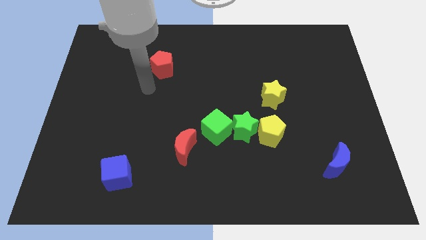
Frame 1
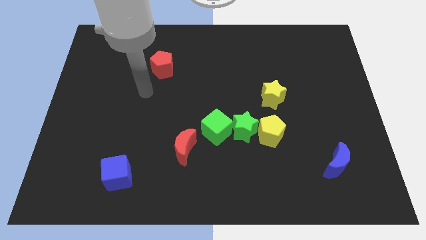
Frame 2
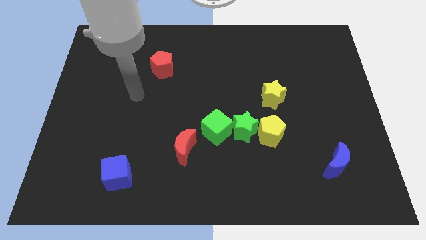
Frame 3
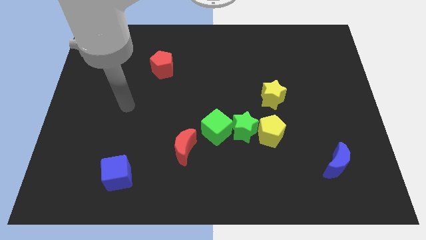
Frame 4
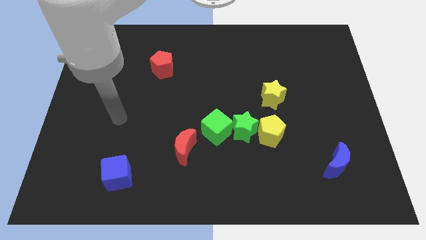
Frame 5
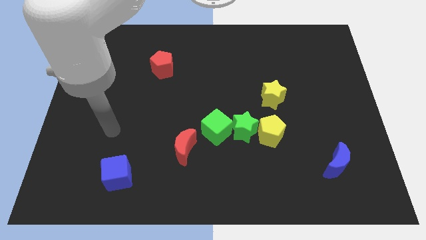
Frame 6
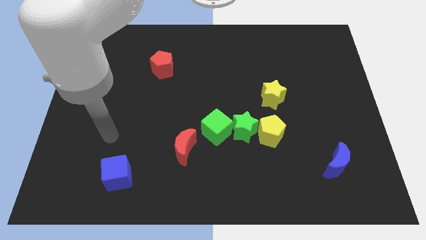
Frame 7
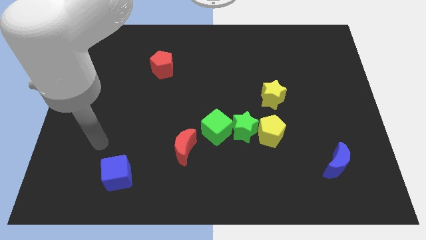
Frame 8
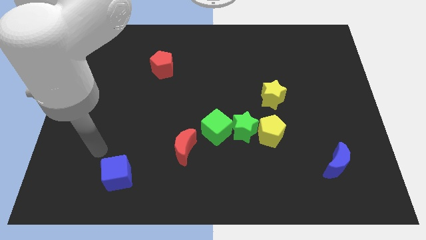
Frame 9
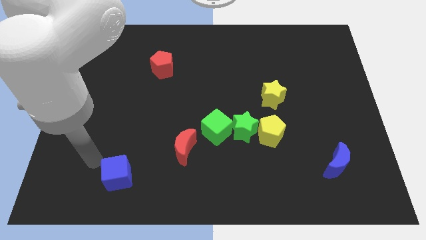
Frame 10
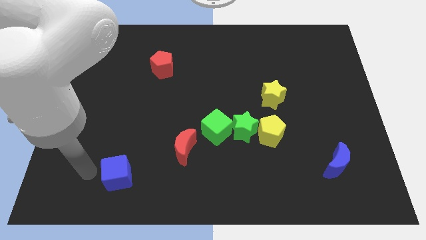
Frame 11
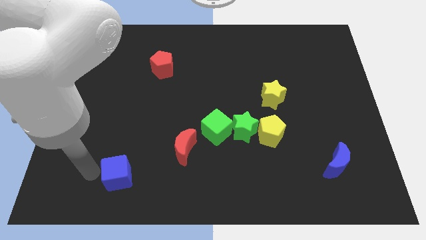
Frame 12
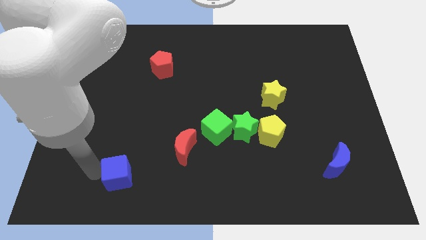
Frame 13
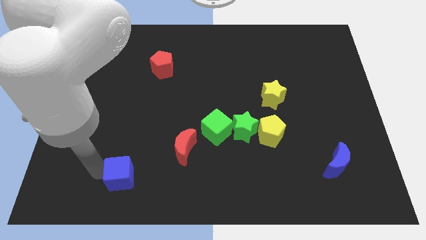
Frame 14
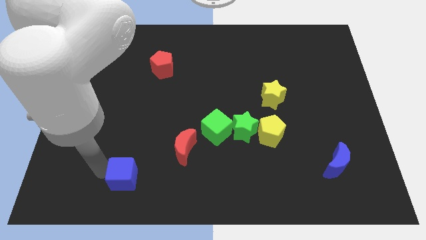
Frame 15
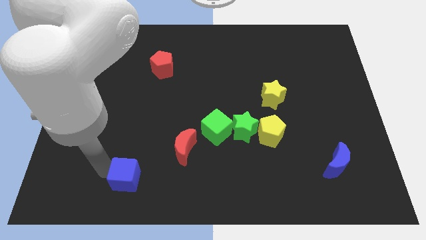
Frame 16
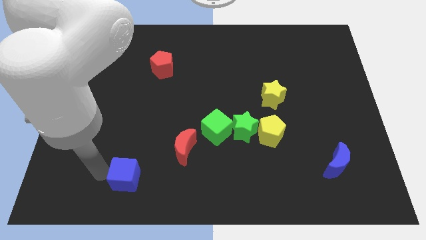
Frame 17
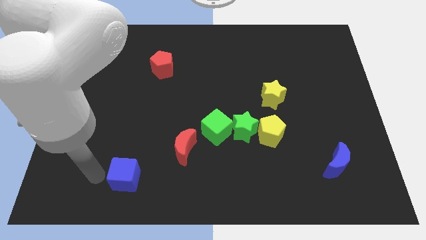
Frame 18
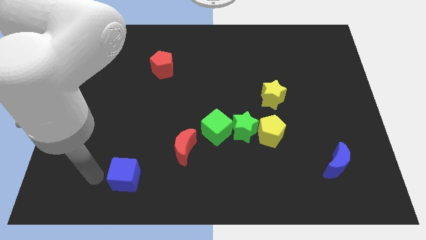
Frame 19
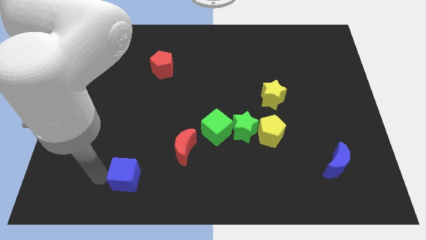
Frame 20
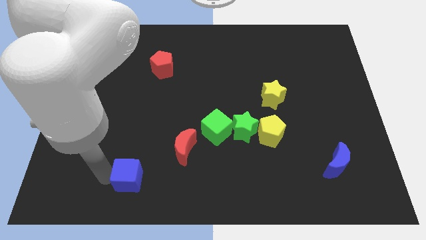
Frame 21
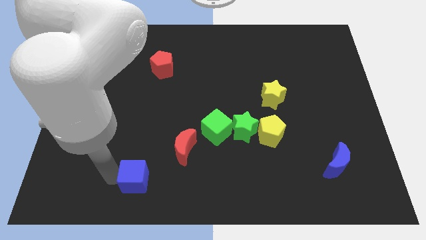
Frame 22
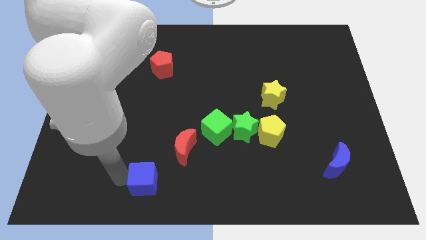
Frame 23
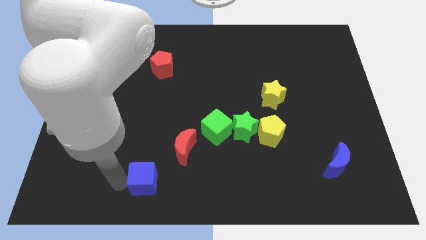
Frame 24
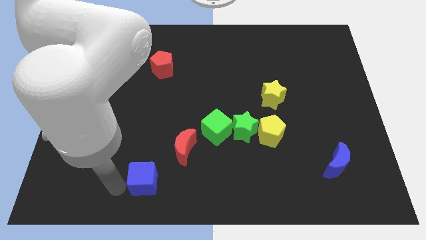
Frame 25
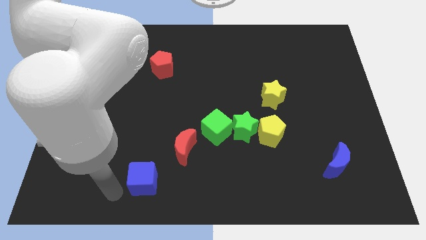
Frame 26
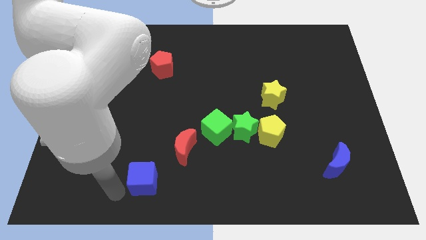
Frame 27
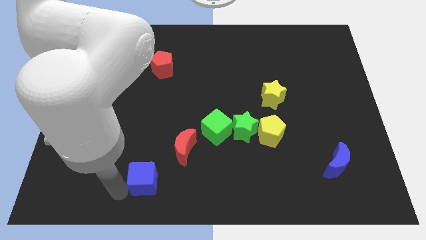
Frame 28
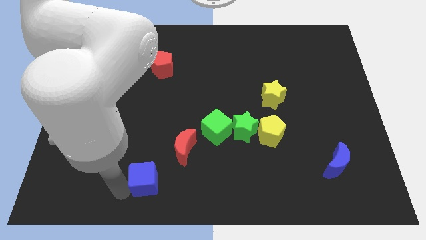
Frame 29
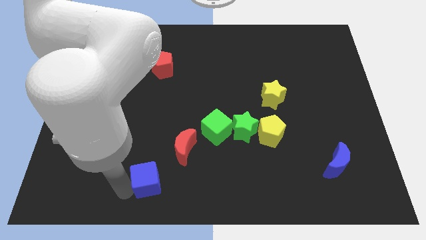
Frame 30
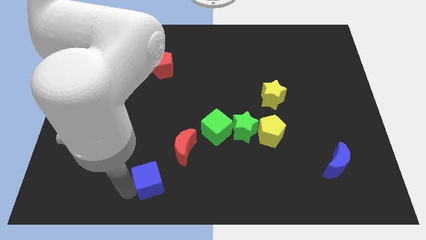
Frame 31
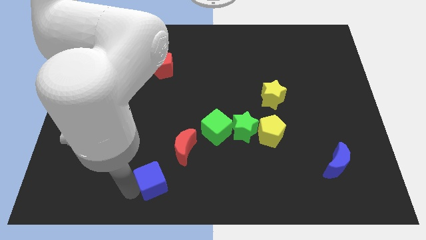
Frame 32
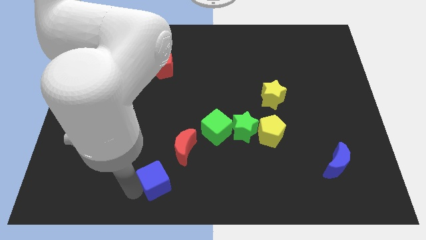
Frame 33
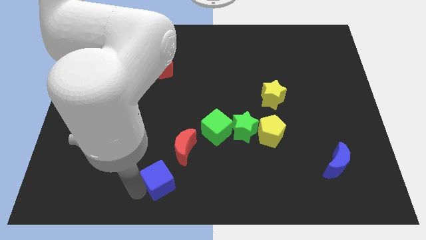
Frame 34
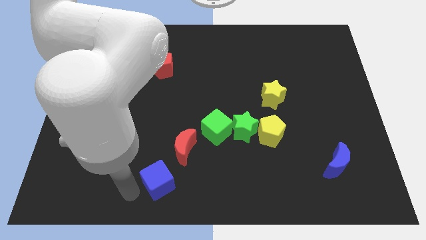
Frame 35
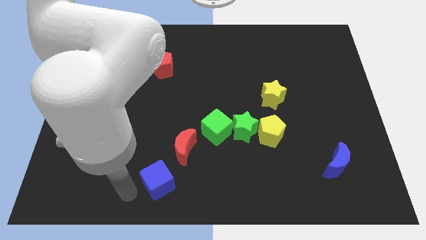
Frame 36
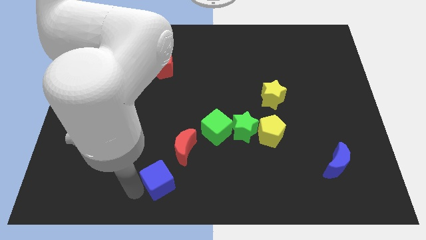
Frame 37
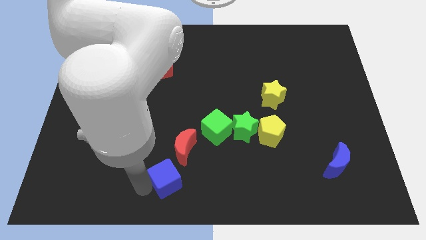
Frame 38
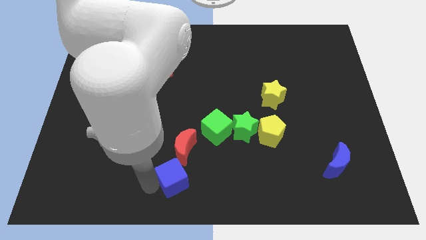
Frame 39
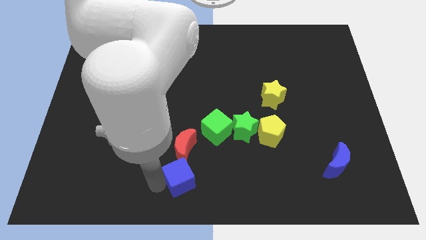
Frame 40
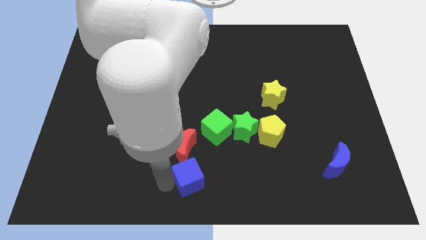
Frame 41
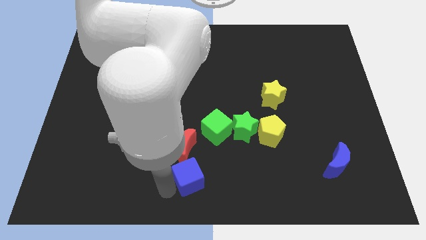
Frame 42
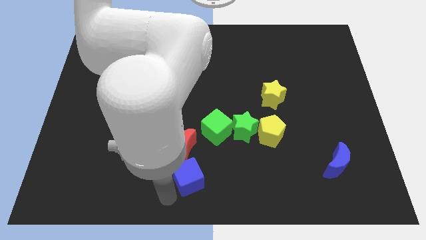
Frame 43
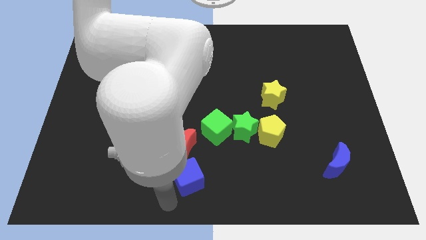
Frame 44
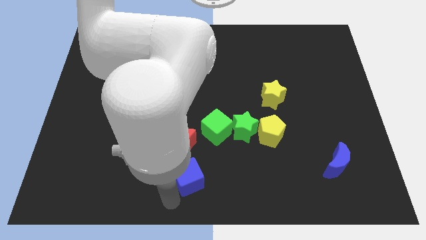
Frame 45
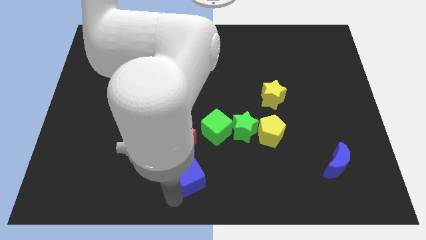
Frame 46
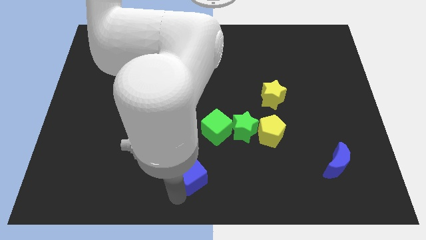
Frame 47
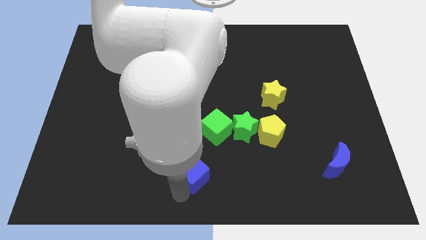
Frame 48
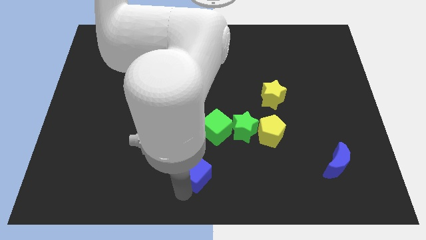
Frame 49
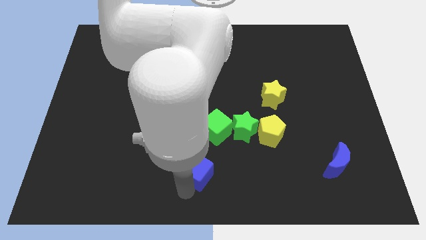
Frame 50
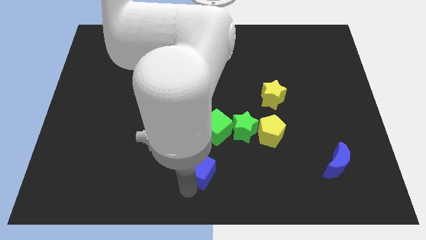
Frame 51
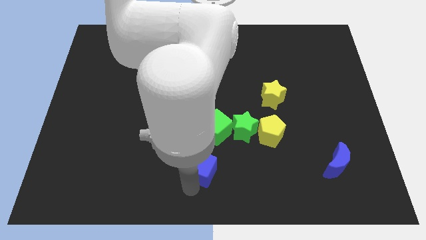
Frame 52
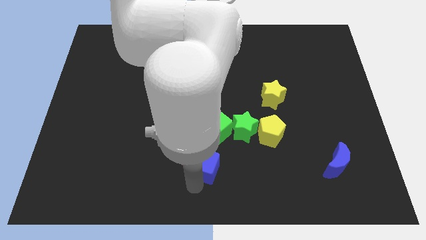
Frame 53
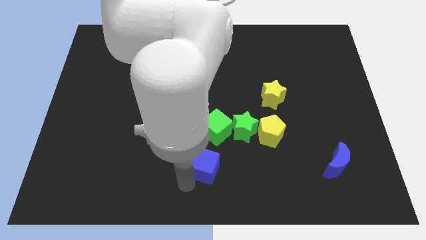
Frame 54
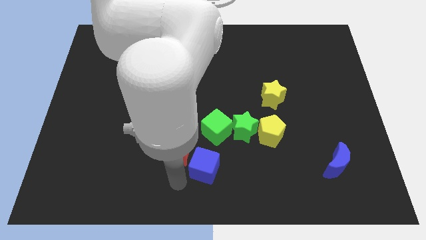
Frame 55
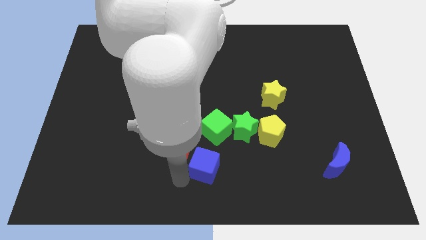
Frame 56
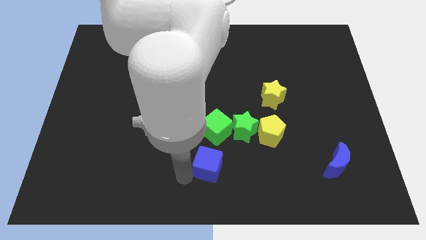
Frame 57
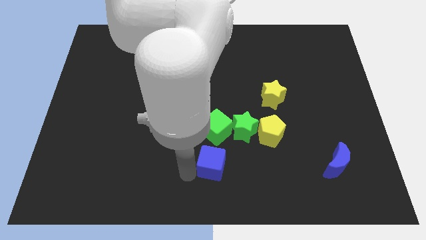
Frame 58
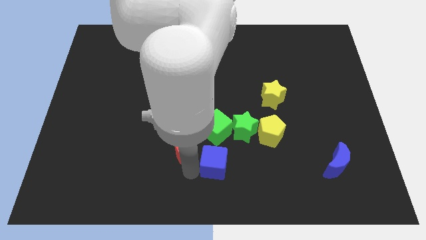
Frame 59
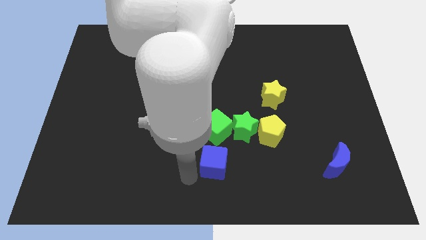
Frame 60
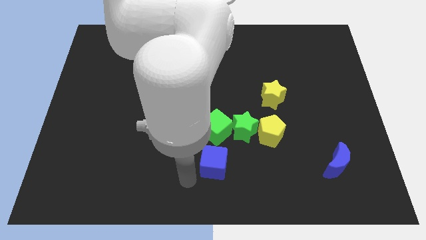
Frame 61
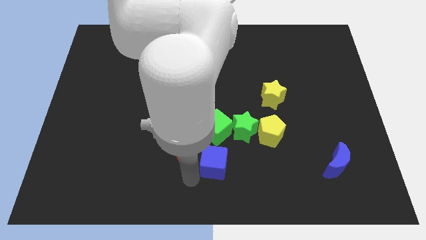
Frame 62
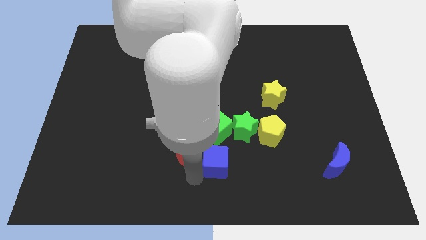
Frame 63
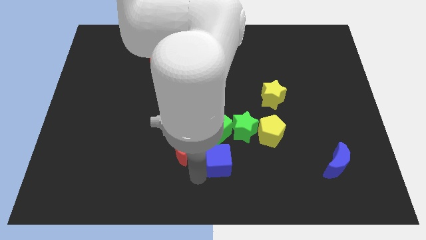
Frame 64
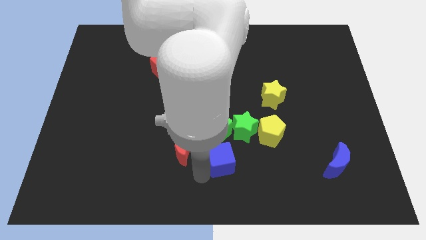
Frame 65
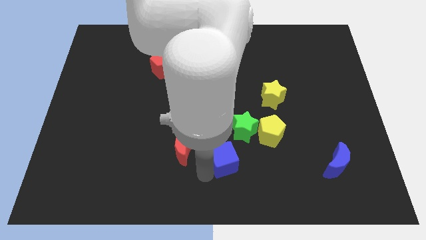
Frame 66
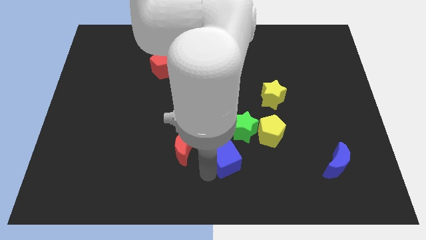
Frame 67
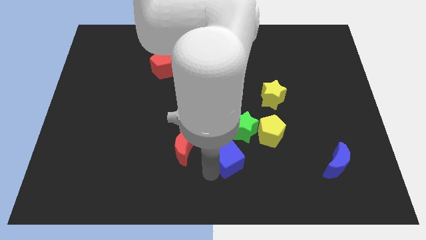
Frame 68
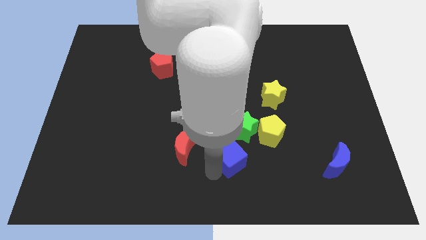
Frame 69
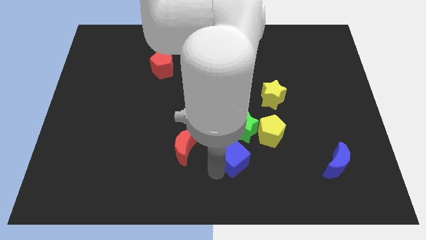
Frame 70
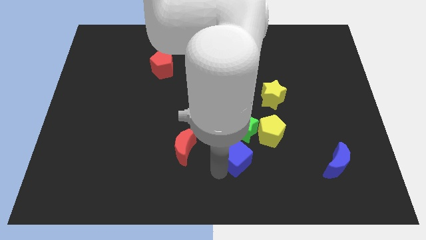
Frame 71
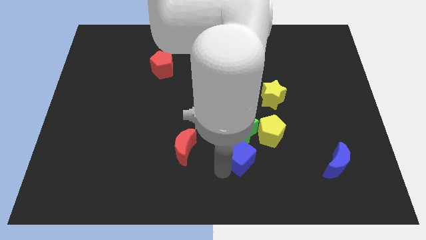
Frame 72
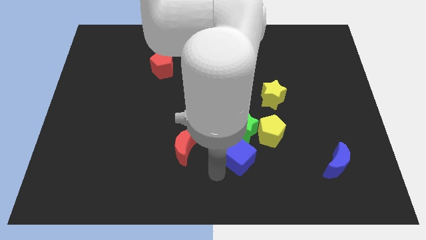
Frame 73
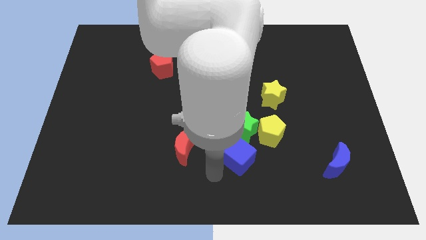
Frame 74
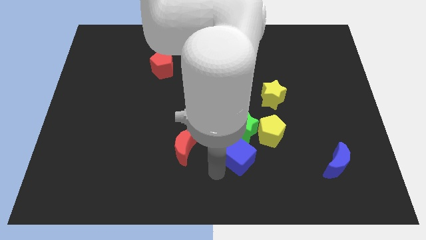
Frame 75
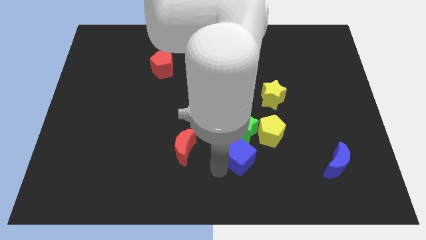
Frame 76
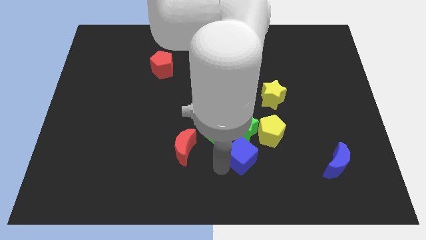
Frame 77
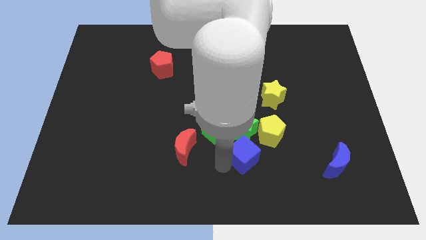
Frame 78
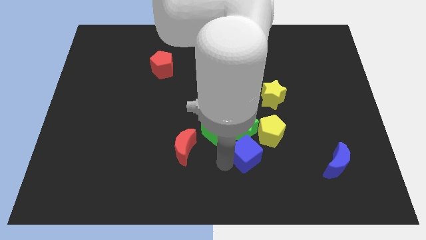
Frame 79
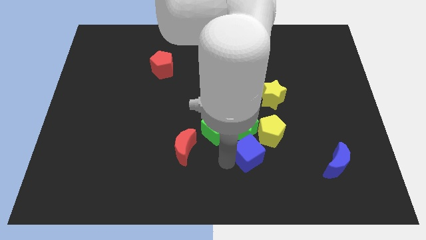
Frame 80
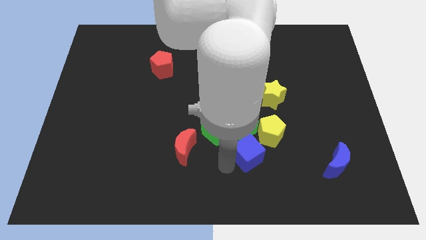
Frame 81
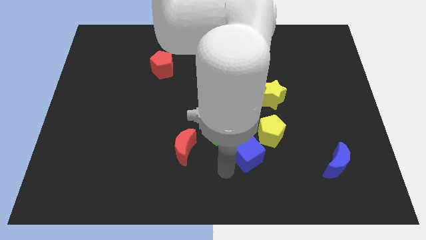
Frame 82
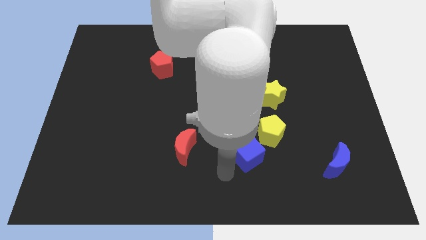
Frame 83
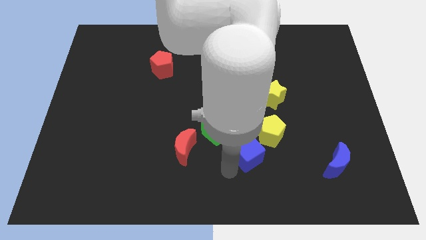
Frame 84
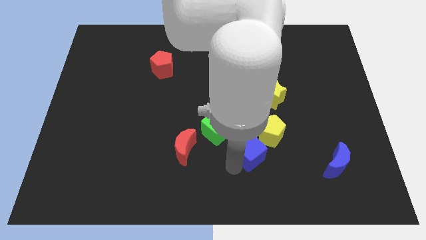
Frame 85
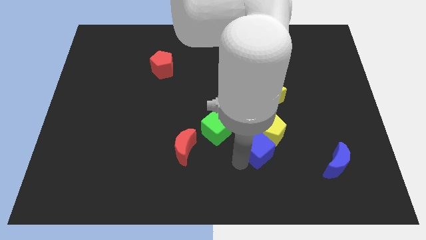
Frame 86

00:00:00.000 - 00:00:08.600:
push the blue cube towards the yellow pentagon
